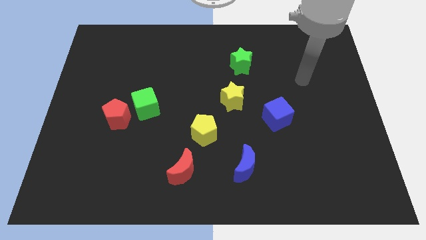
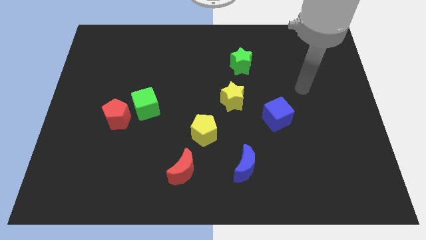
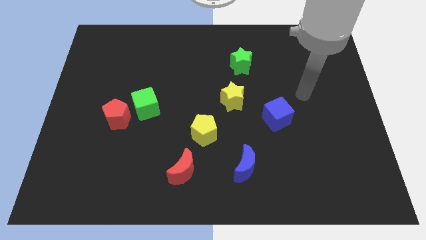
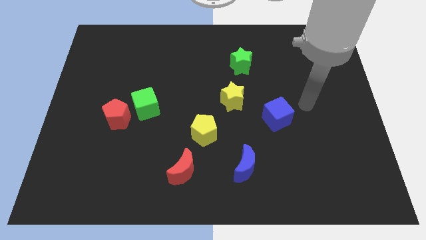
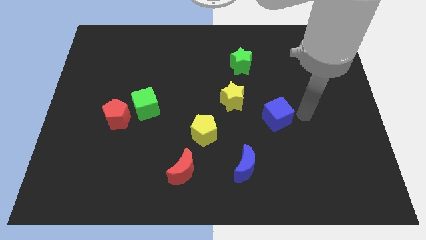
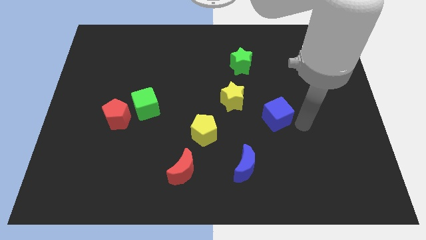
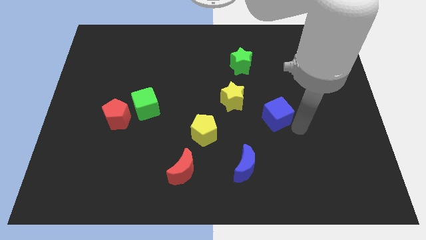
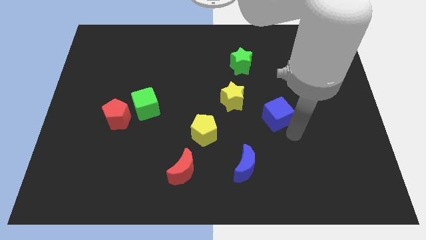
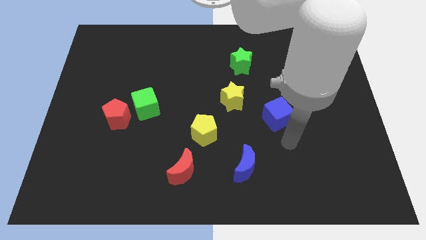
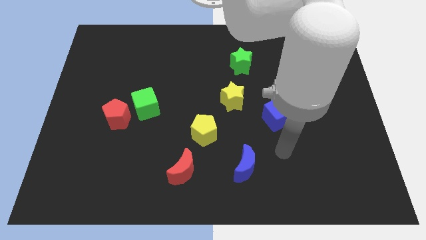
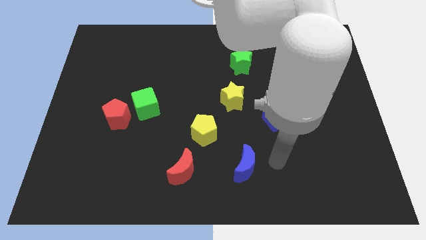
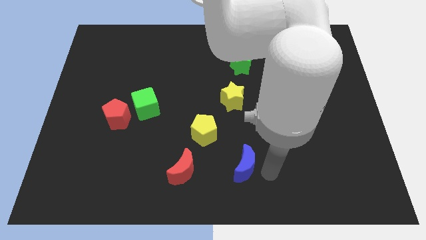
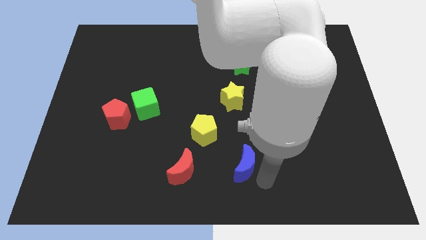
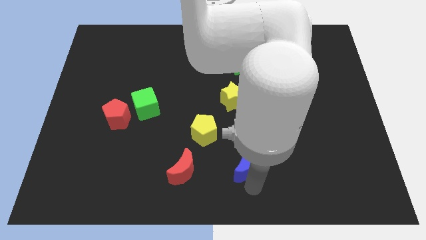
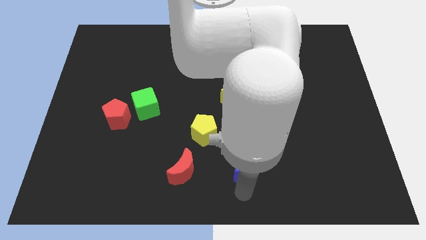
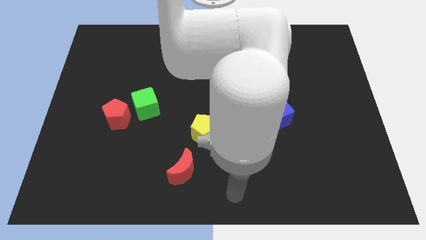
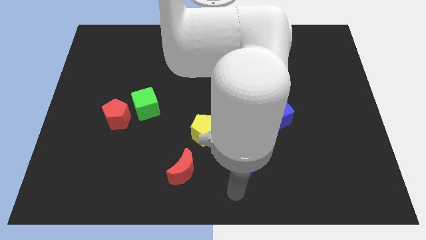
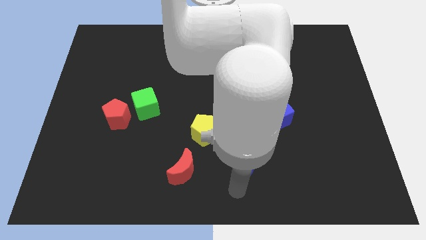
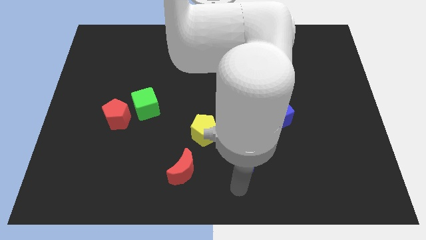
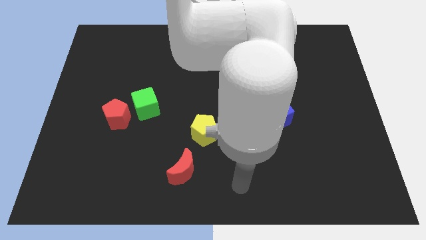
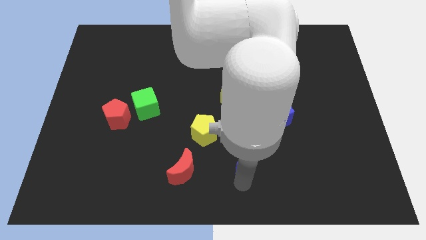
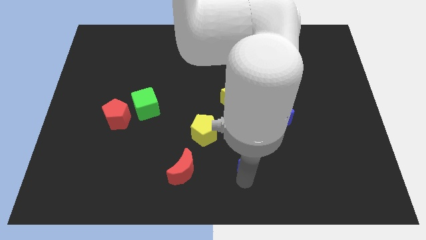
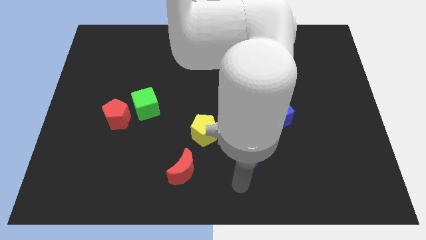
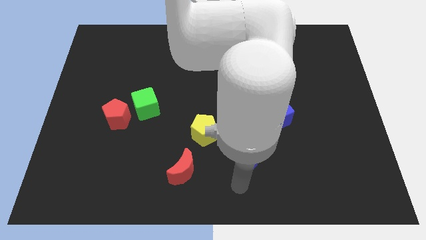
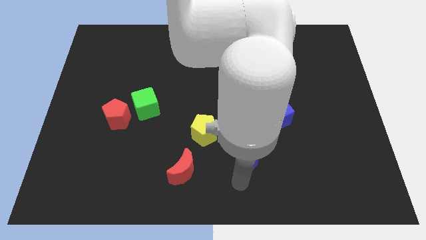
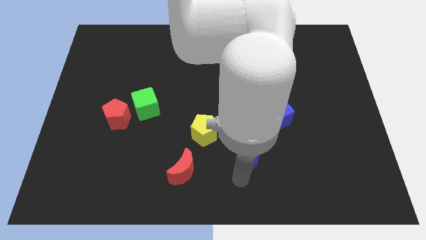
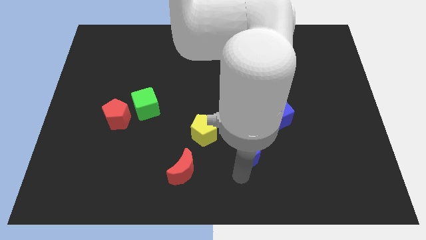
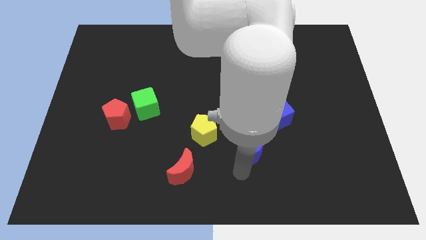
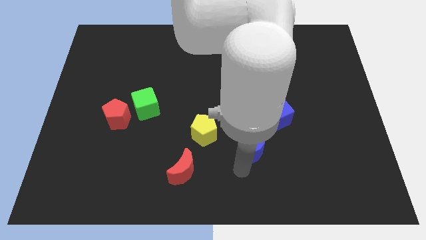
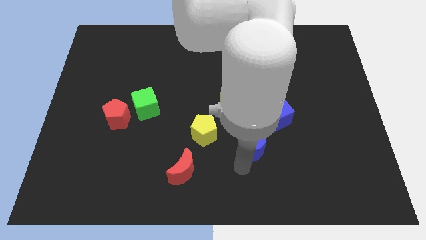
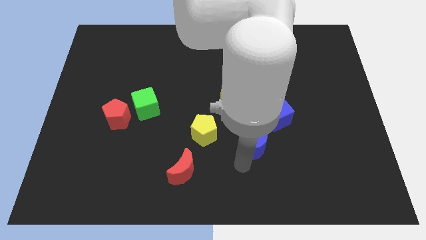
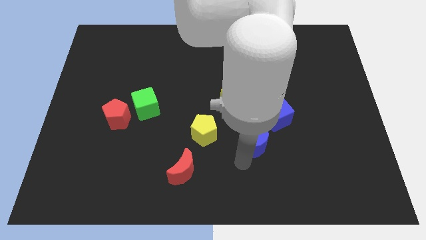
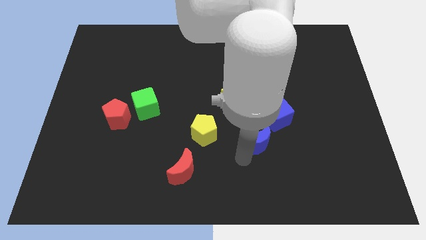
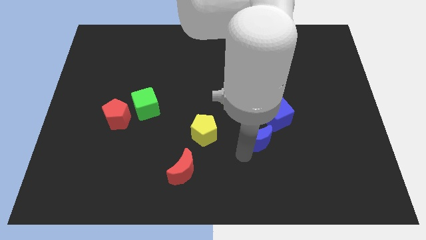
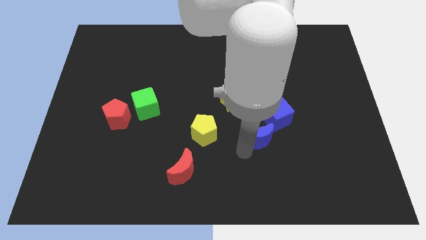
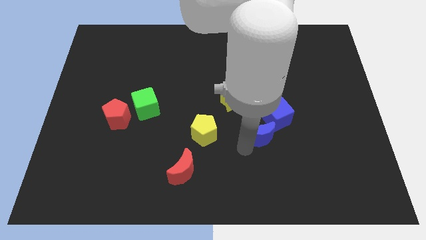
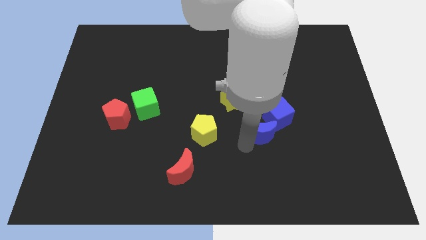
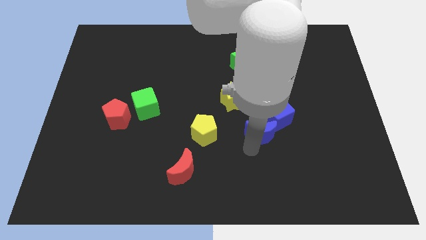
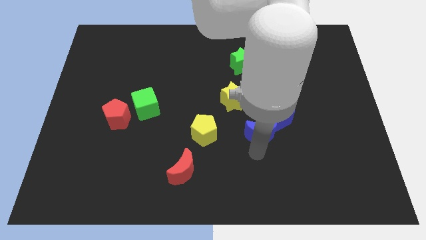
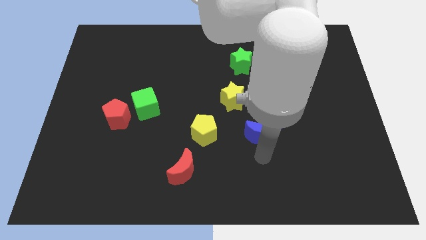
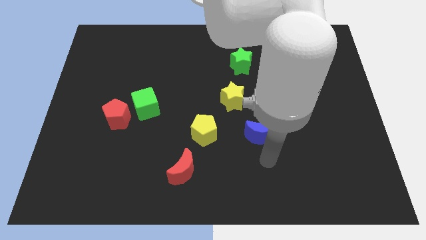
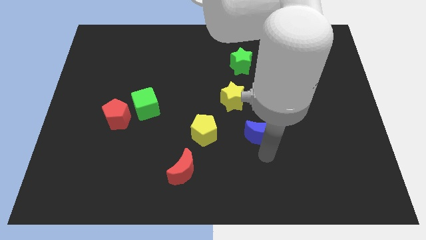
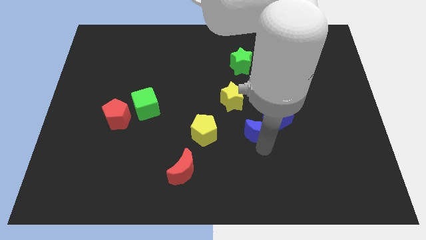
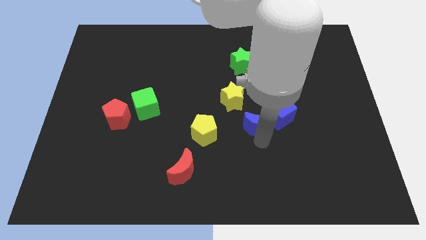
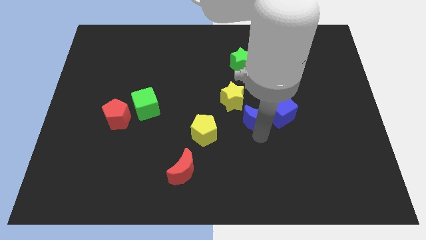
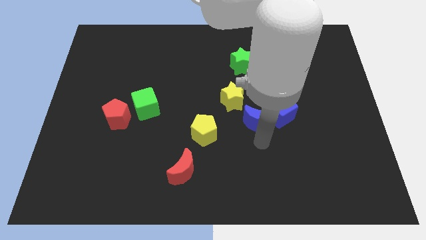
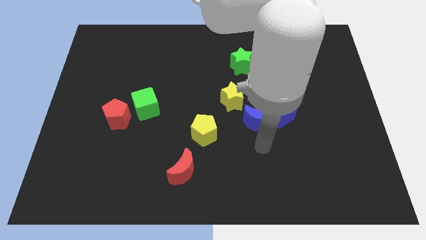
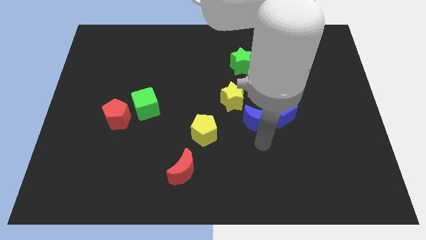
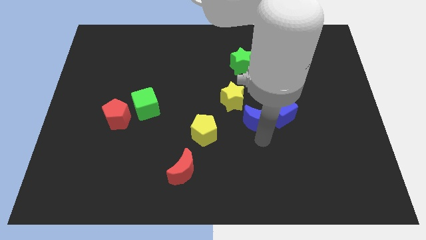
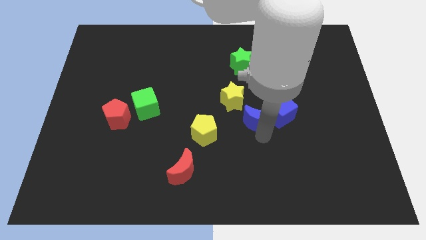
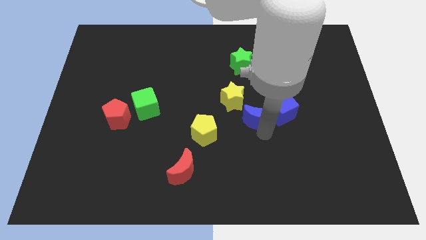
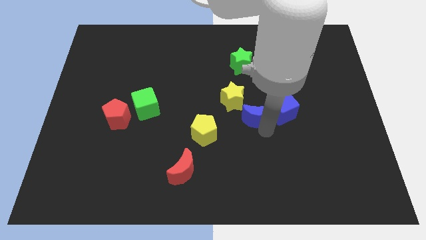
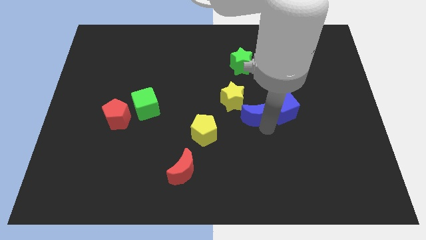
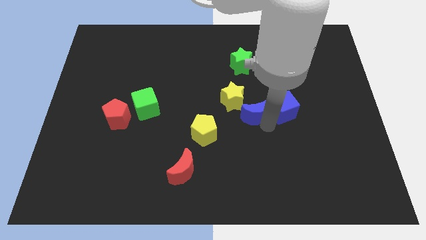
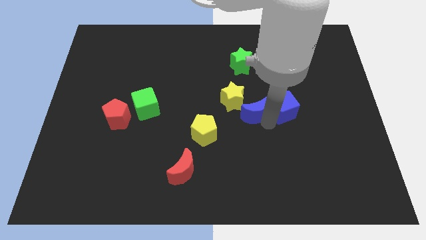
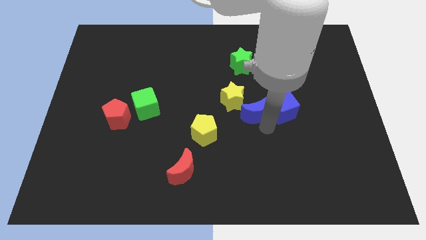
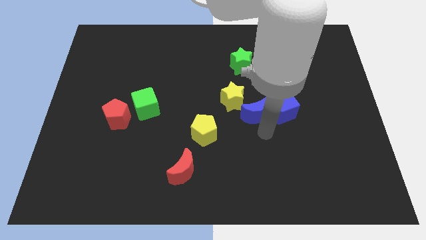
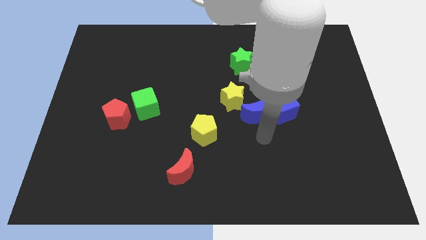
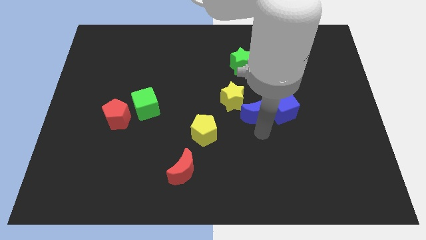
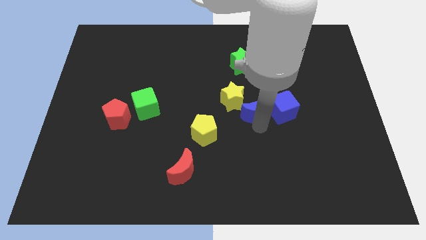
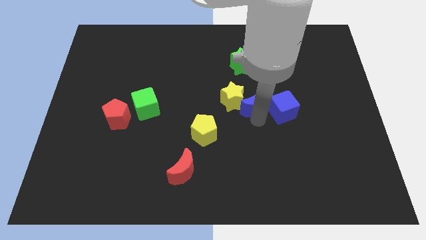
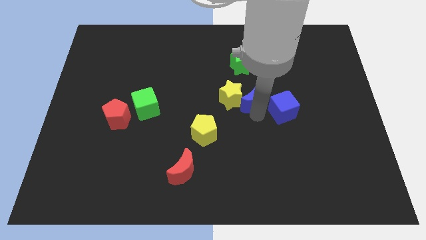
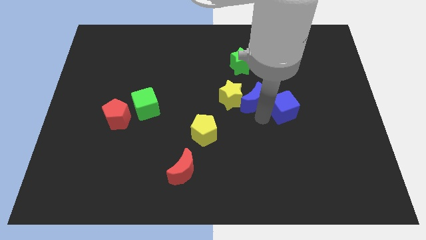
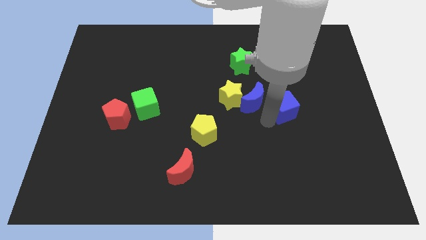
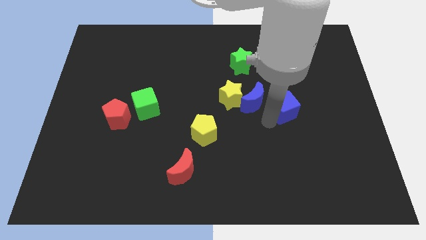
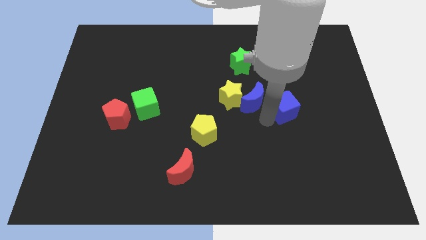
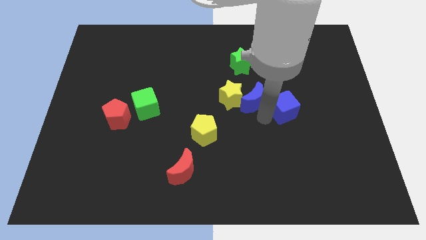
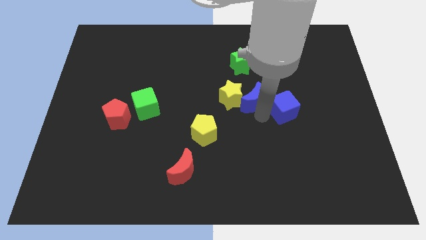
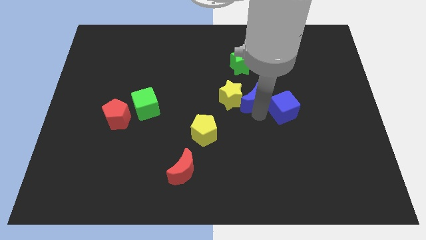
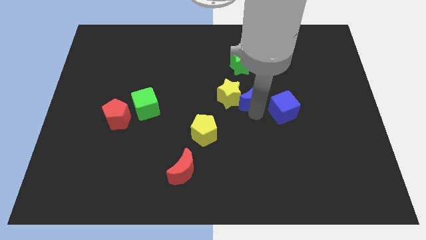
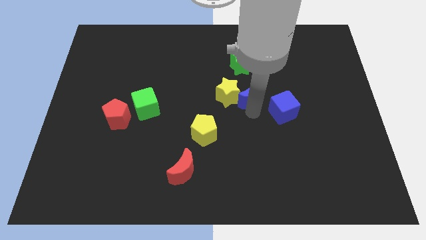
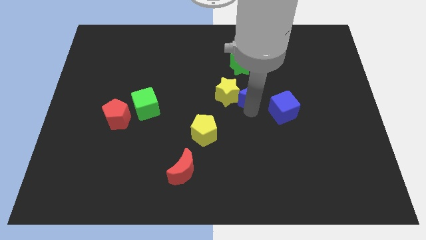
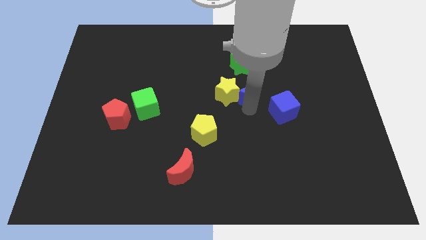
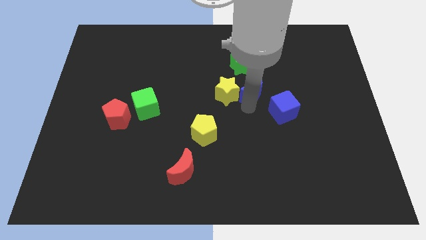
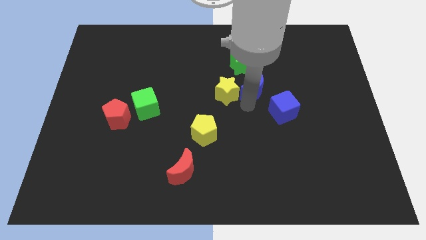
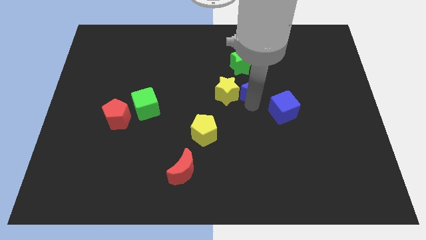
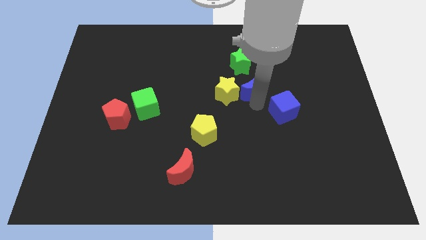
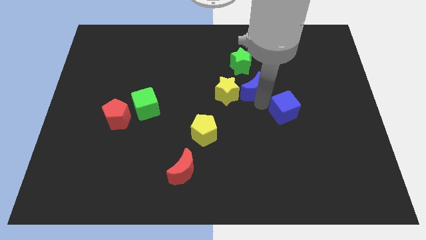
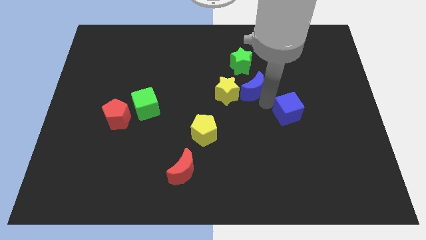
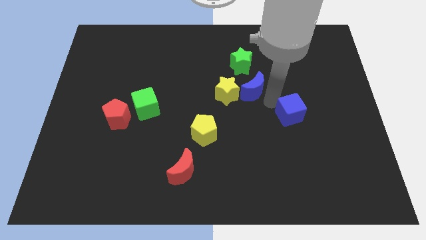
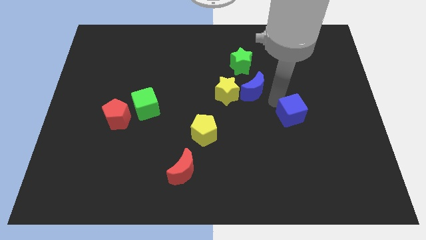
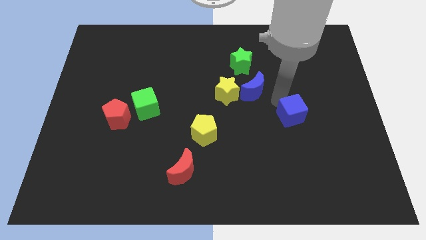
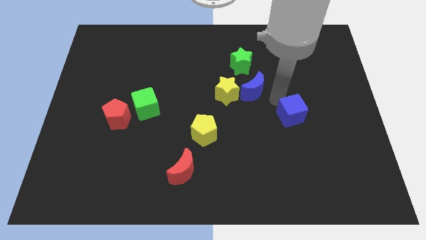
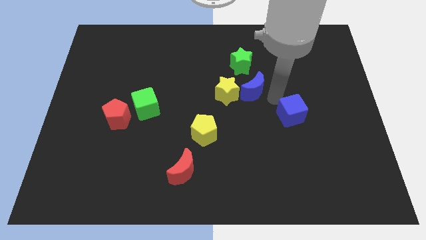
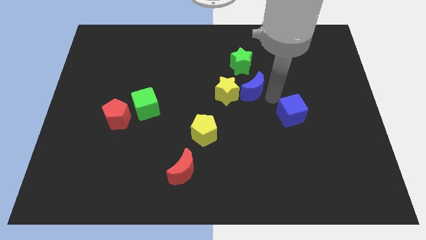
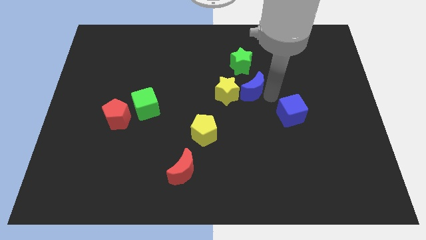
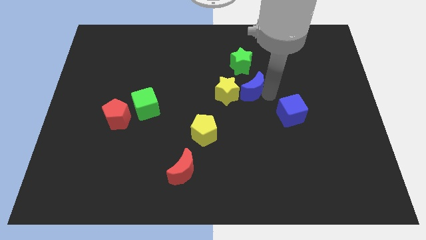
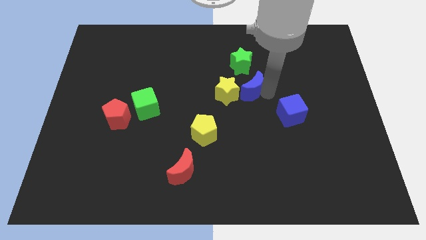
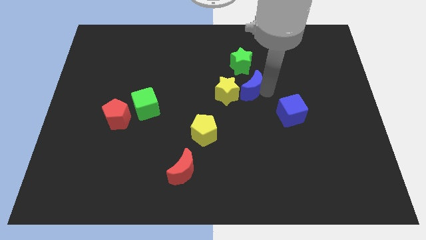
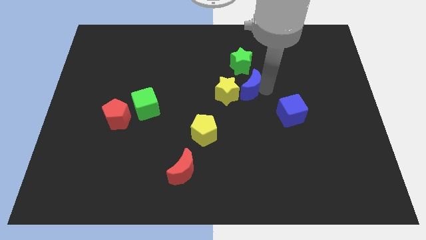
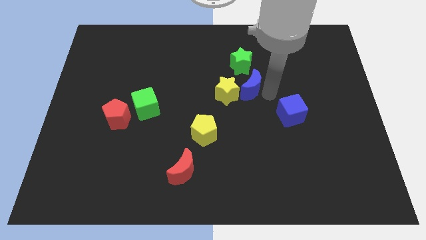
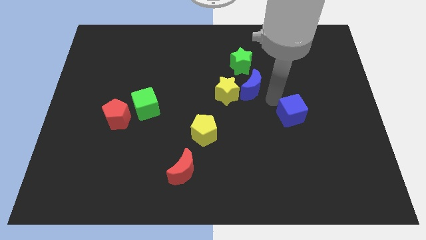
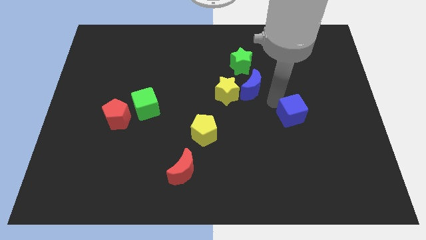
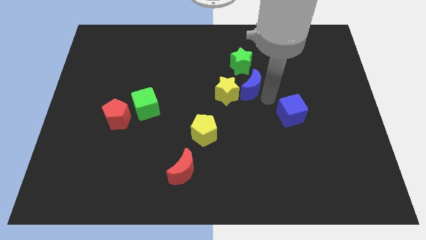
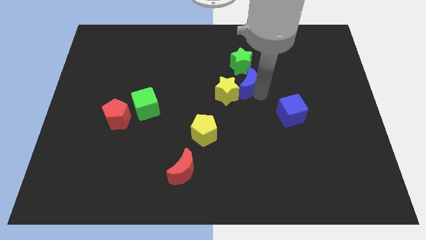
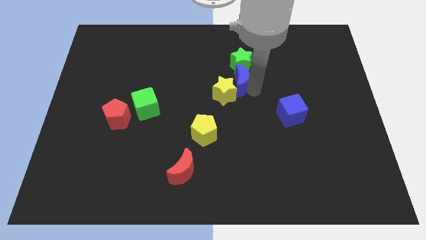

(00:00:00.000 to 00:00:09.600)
move the blue moon to the top of the yellow star
